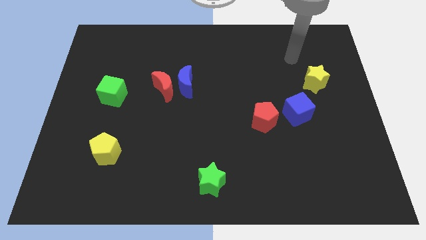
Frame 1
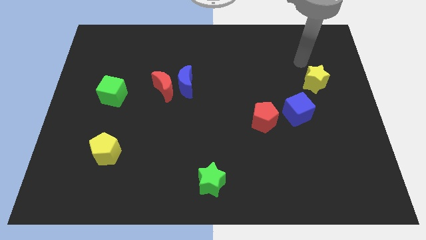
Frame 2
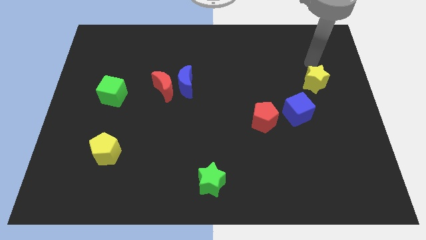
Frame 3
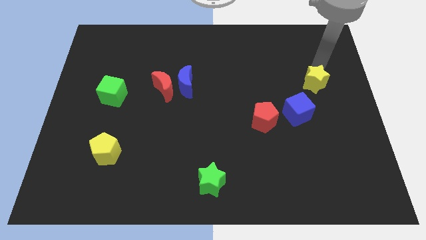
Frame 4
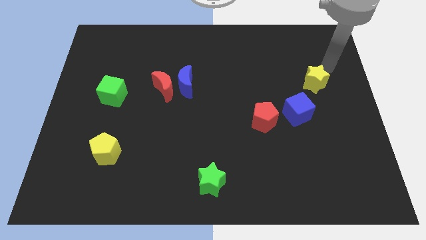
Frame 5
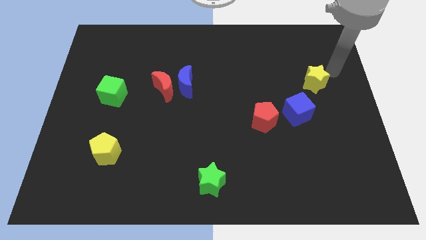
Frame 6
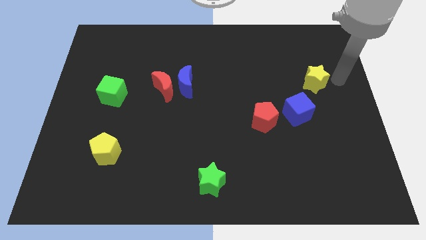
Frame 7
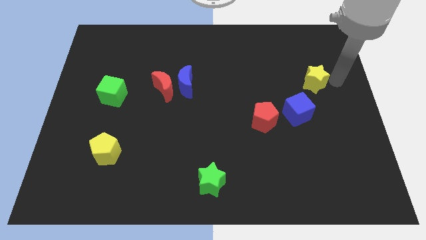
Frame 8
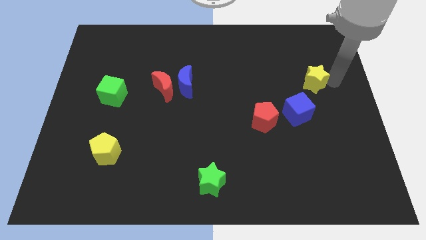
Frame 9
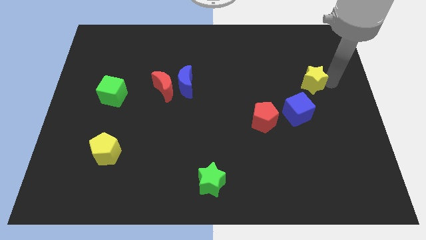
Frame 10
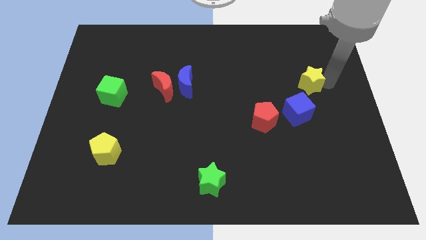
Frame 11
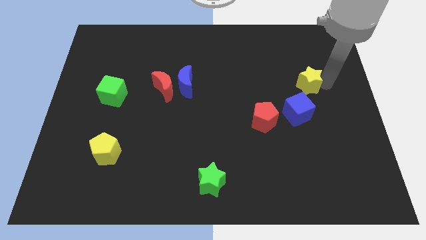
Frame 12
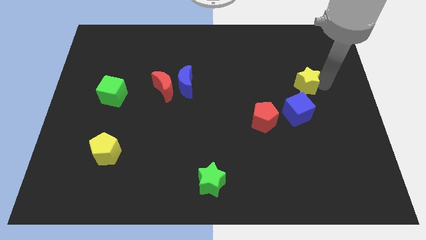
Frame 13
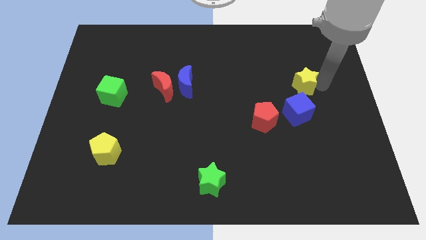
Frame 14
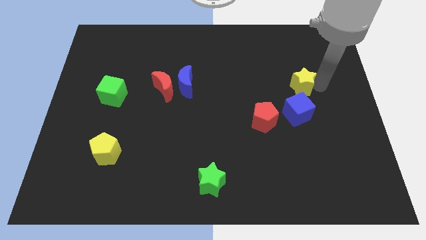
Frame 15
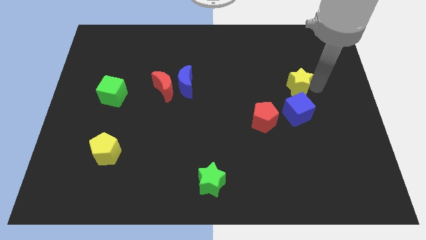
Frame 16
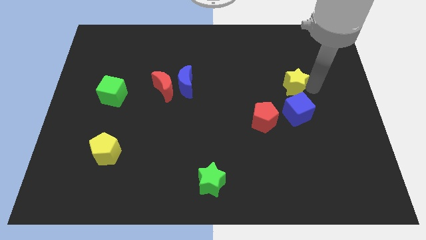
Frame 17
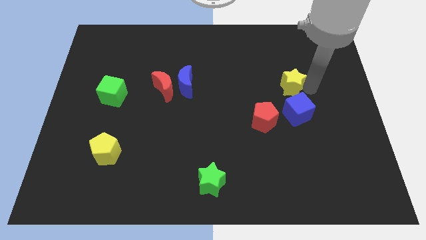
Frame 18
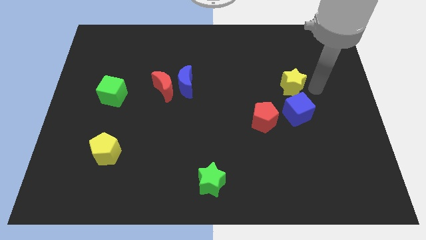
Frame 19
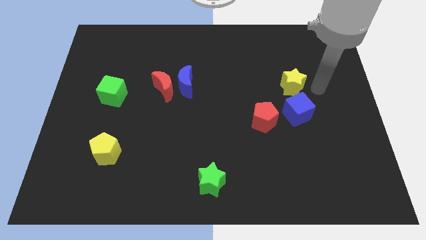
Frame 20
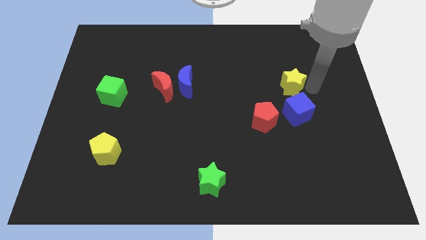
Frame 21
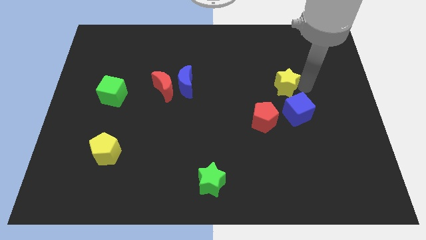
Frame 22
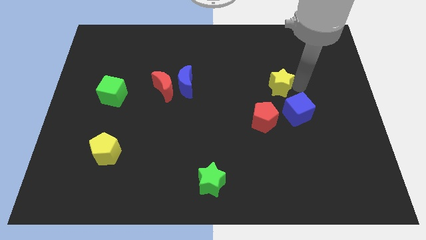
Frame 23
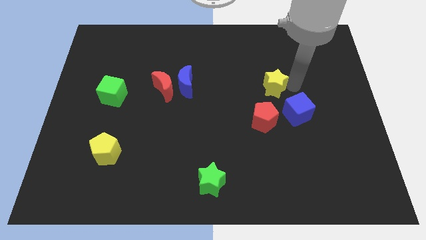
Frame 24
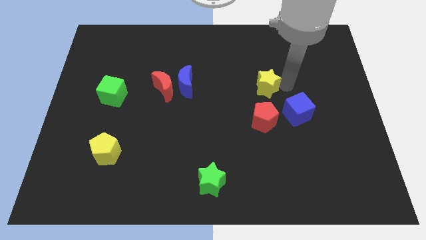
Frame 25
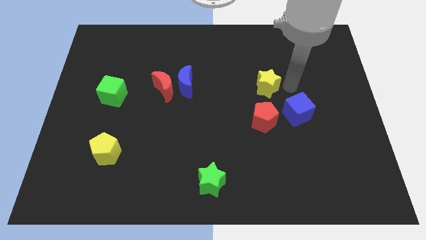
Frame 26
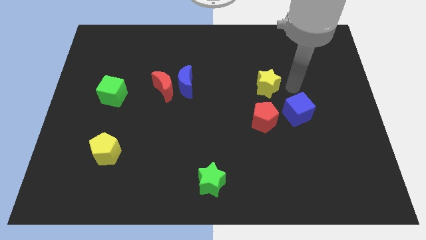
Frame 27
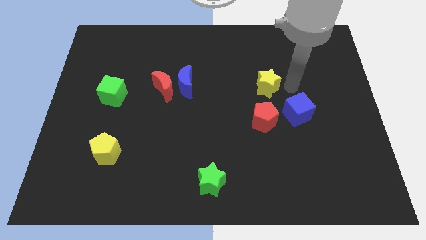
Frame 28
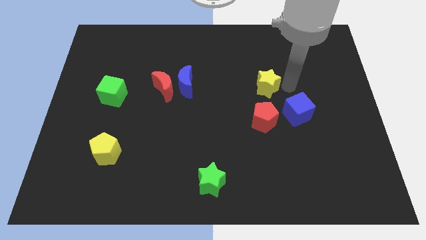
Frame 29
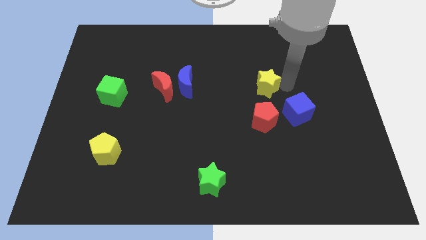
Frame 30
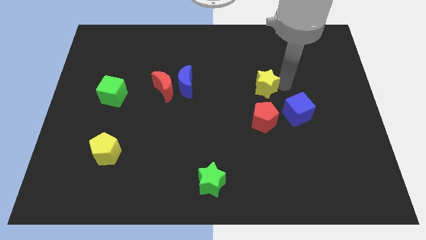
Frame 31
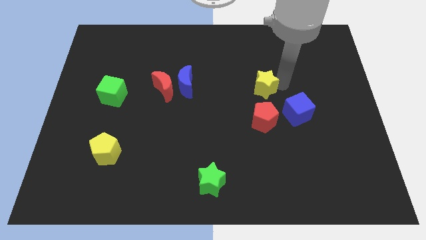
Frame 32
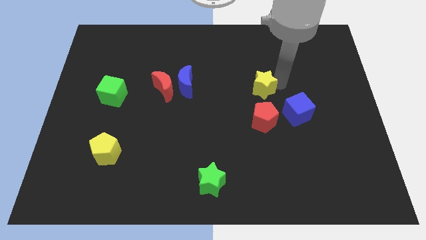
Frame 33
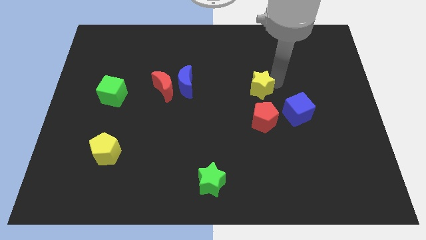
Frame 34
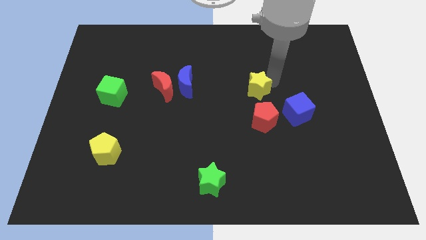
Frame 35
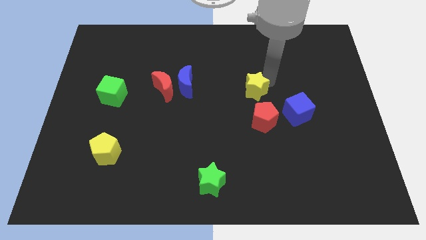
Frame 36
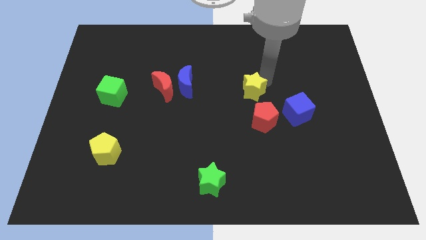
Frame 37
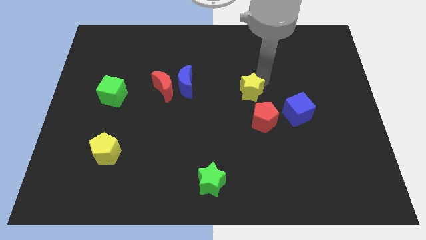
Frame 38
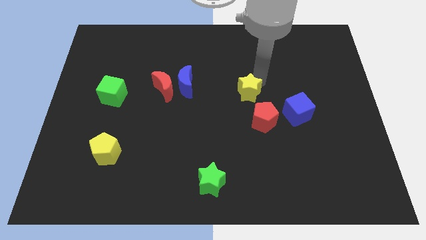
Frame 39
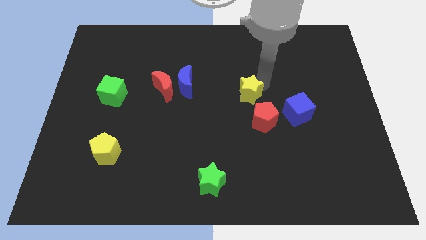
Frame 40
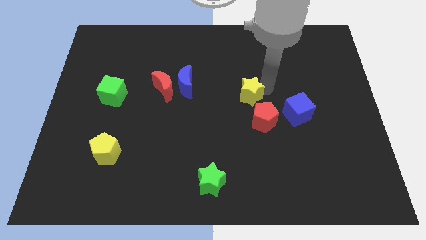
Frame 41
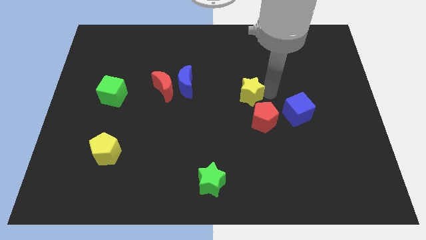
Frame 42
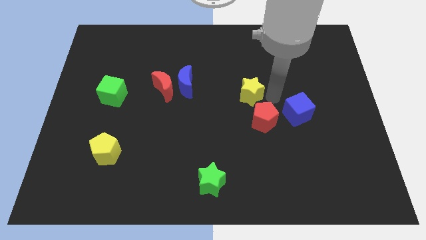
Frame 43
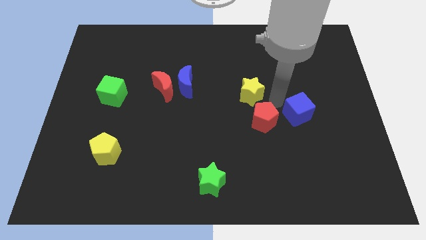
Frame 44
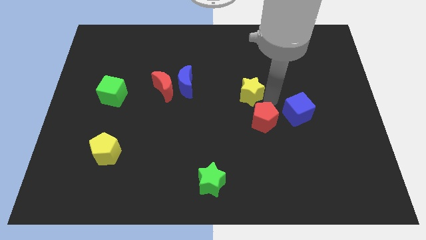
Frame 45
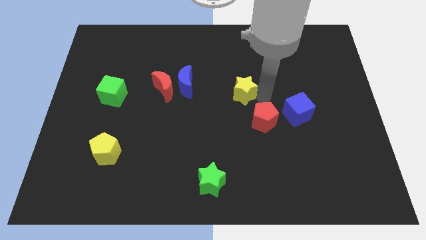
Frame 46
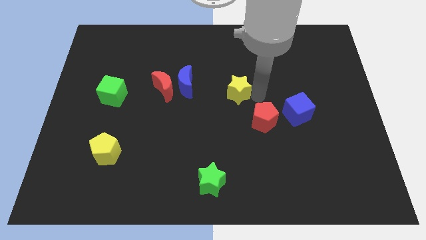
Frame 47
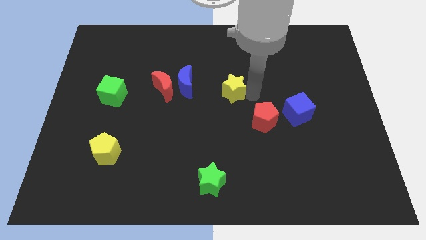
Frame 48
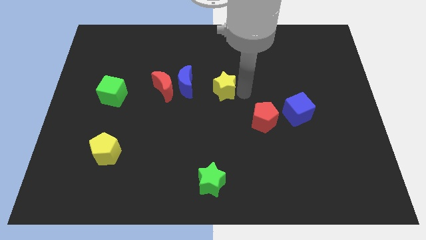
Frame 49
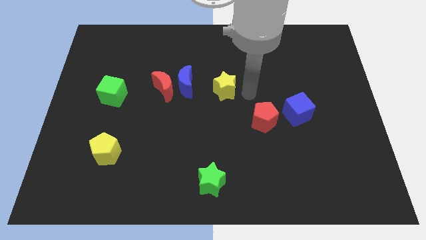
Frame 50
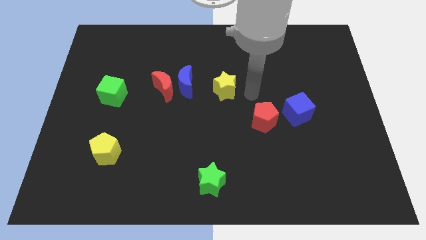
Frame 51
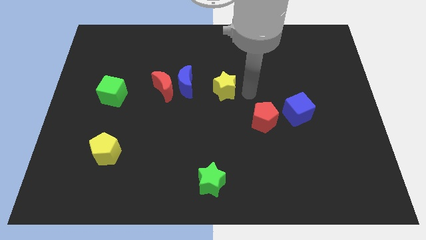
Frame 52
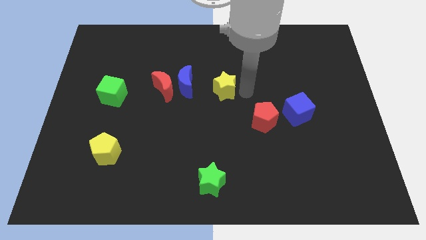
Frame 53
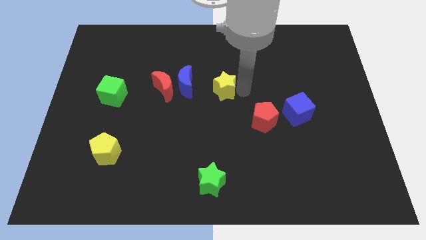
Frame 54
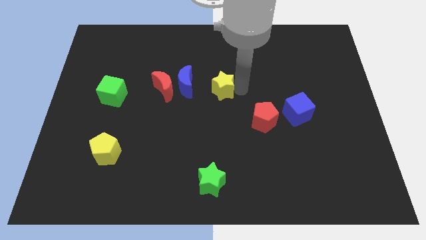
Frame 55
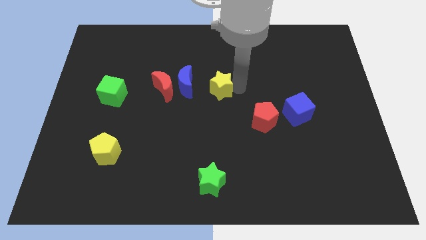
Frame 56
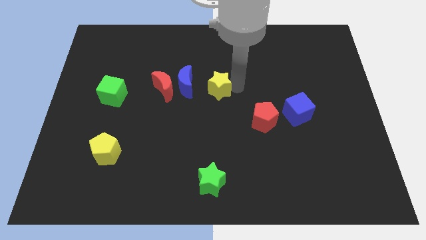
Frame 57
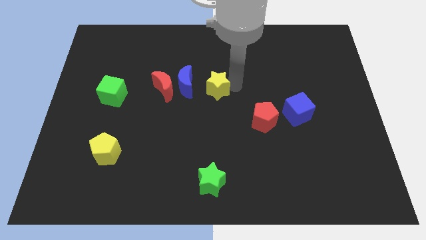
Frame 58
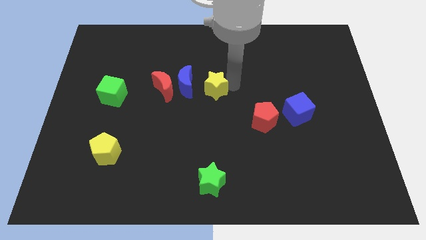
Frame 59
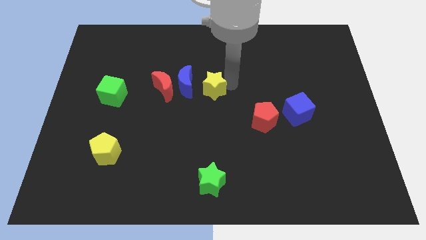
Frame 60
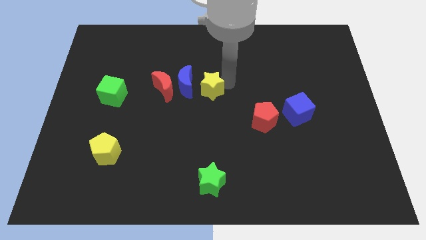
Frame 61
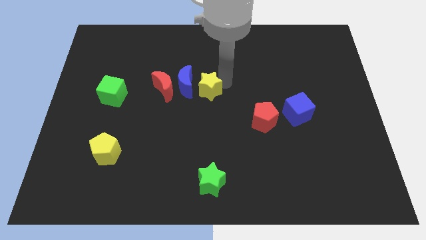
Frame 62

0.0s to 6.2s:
move the yellow star next to the blue moon

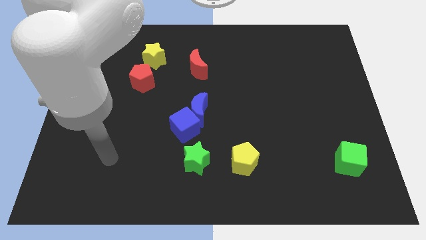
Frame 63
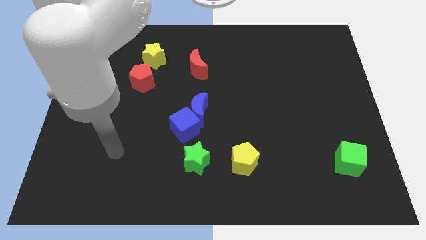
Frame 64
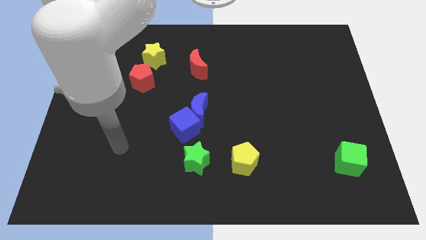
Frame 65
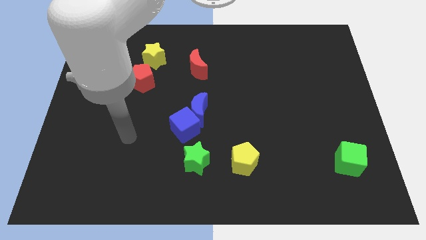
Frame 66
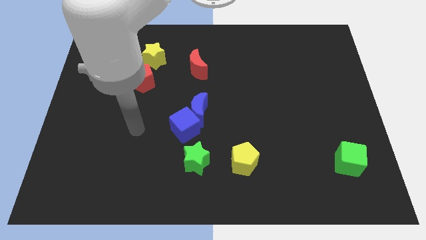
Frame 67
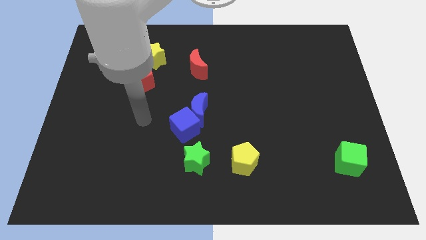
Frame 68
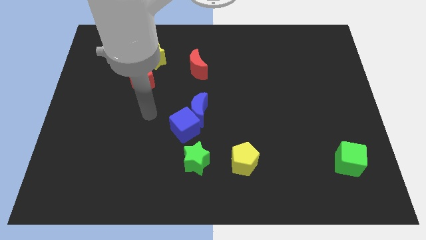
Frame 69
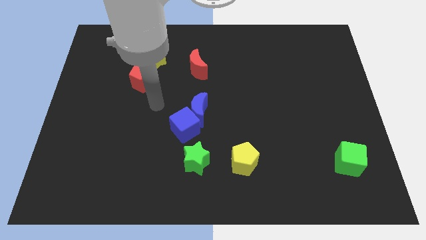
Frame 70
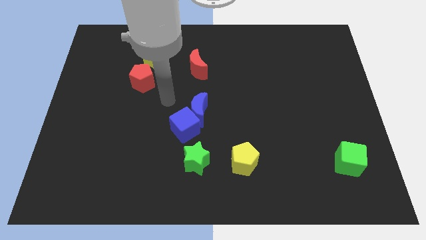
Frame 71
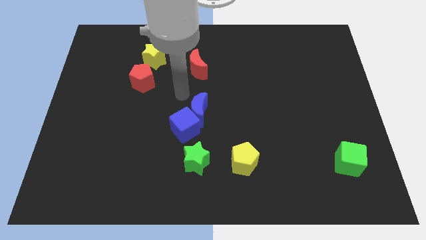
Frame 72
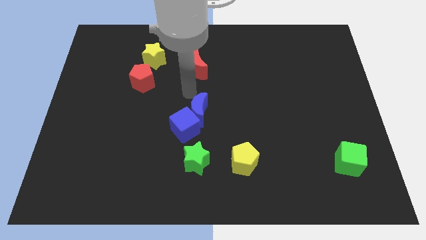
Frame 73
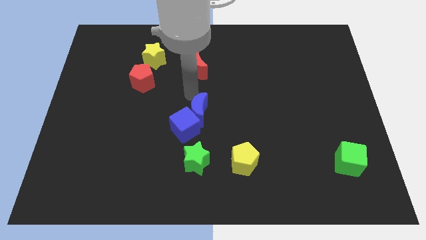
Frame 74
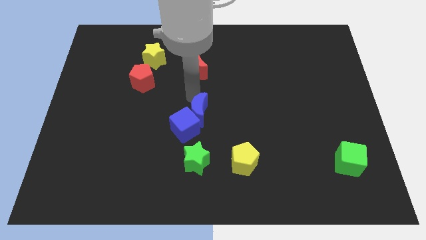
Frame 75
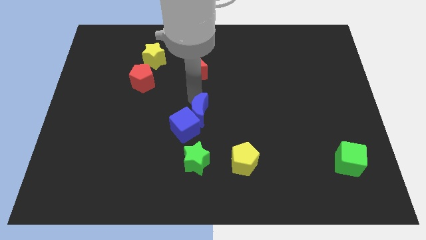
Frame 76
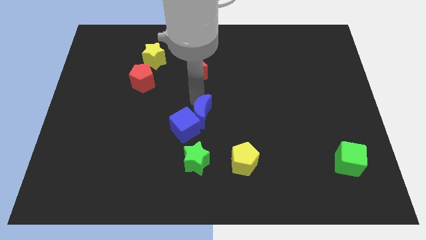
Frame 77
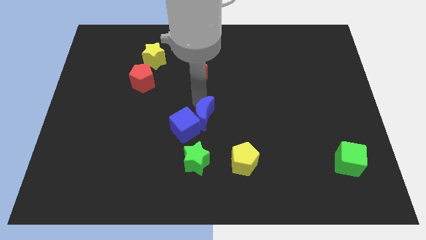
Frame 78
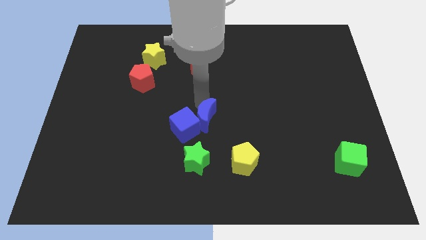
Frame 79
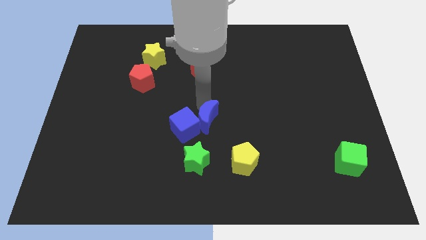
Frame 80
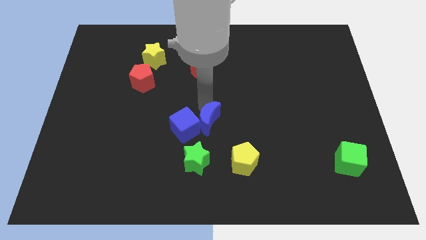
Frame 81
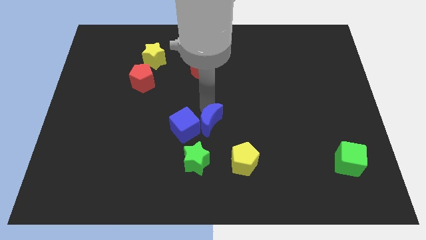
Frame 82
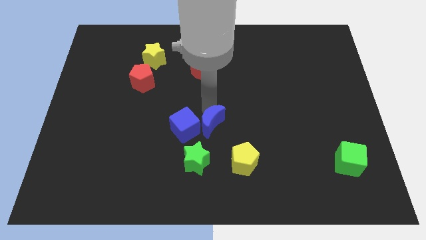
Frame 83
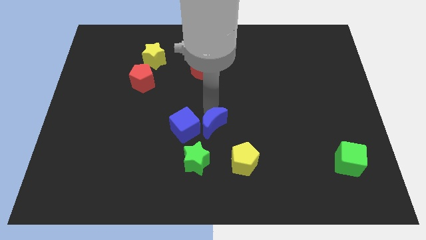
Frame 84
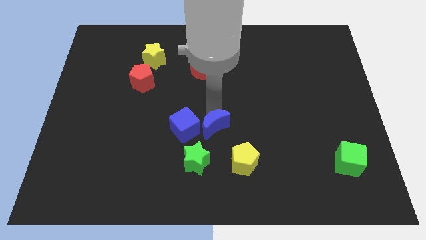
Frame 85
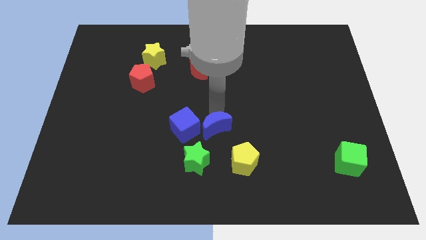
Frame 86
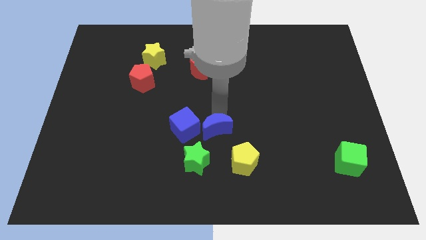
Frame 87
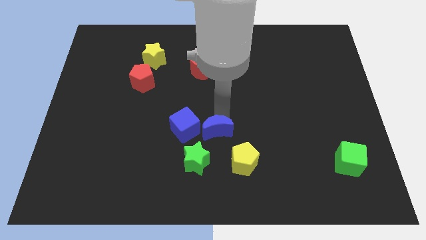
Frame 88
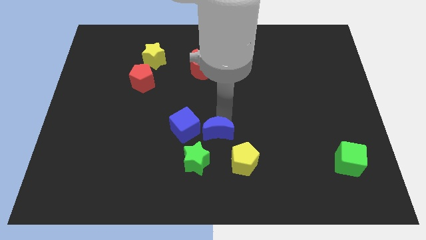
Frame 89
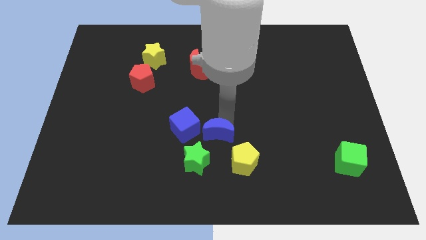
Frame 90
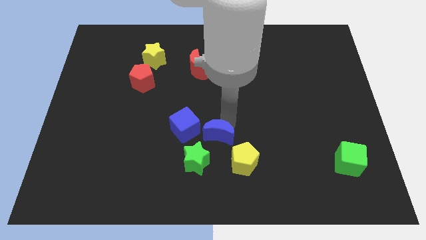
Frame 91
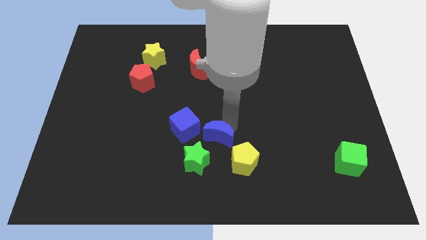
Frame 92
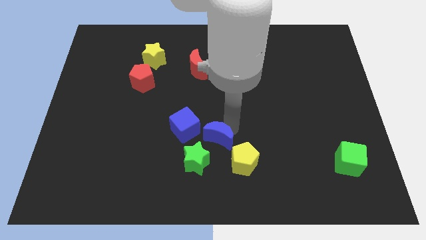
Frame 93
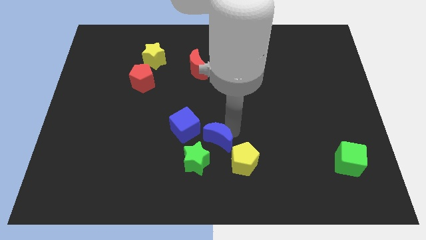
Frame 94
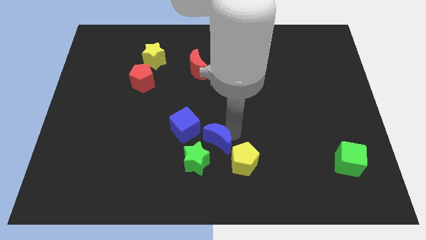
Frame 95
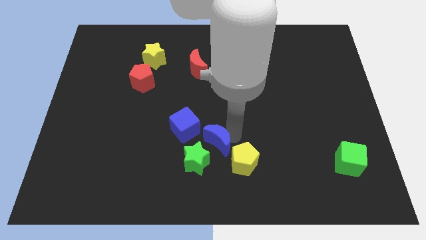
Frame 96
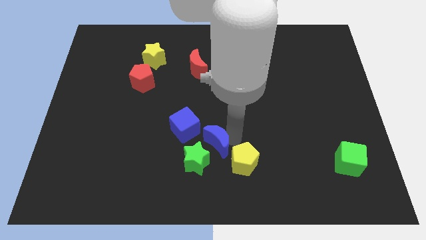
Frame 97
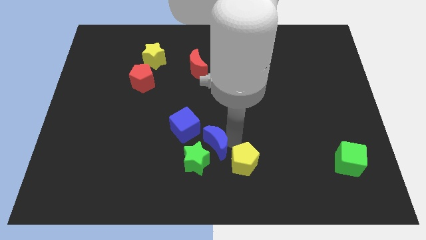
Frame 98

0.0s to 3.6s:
slide the blue moon close to the green star
